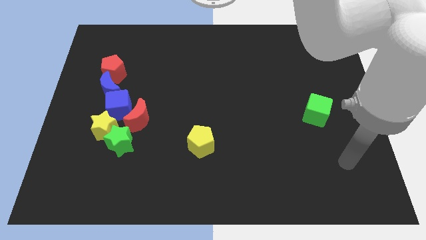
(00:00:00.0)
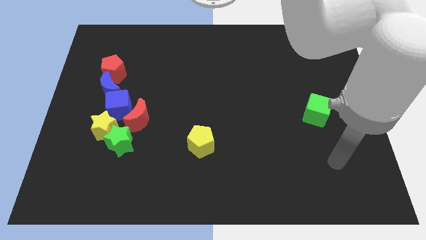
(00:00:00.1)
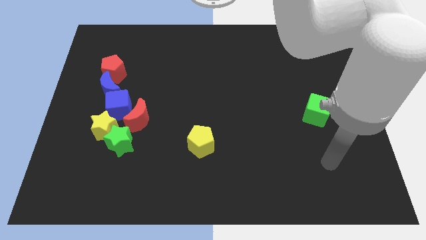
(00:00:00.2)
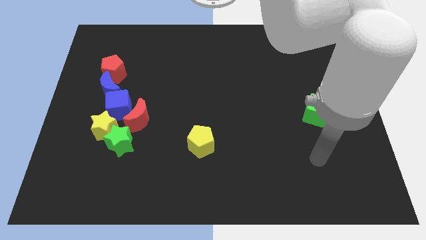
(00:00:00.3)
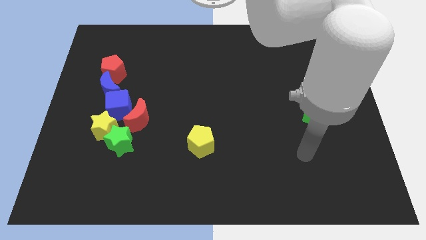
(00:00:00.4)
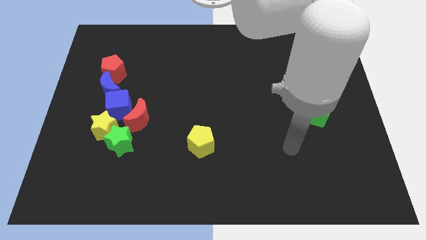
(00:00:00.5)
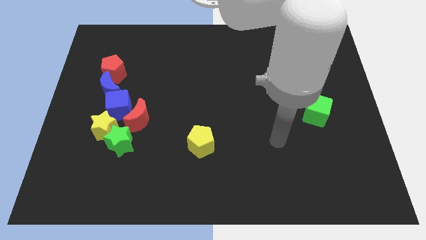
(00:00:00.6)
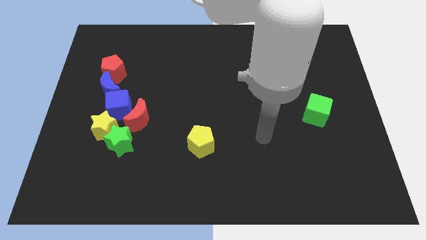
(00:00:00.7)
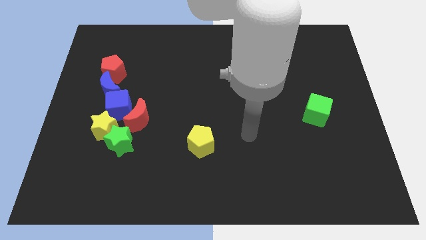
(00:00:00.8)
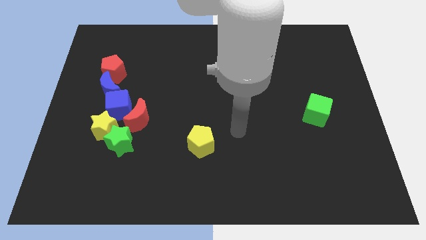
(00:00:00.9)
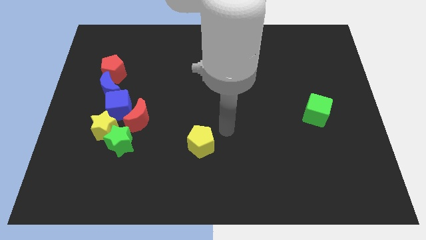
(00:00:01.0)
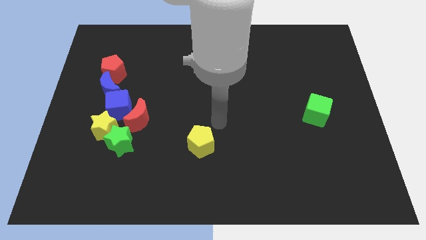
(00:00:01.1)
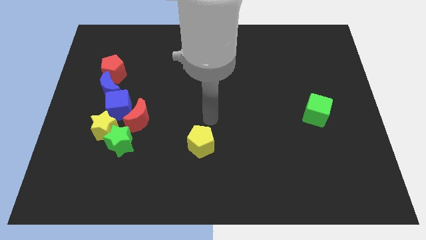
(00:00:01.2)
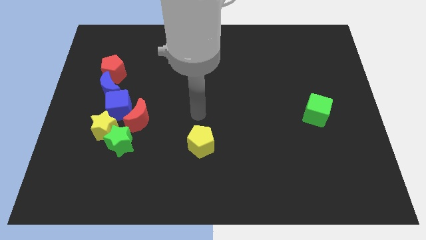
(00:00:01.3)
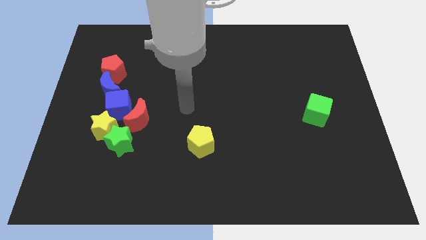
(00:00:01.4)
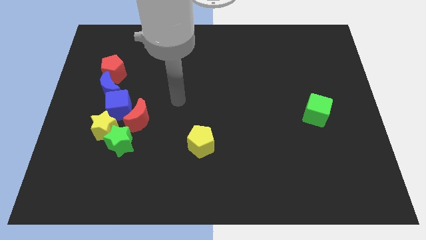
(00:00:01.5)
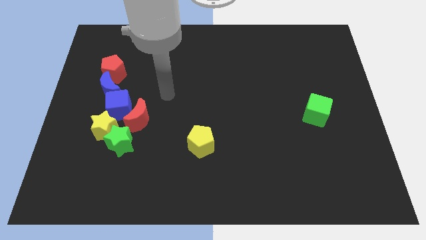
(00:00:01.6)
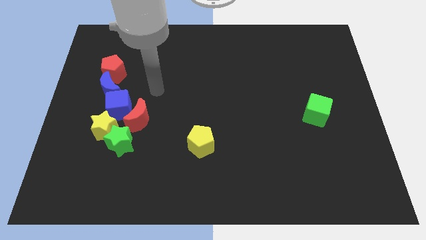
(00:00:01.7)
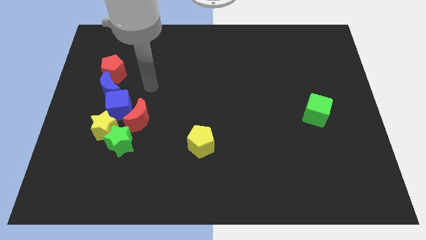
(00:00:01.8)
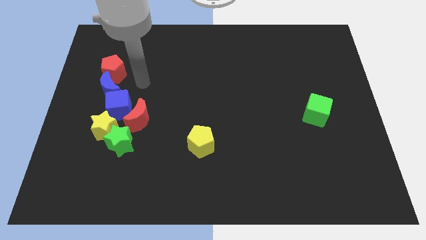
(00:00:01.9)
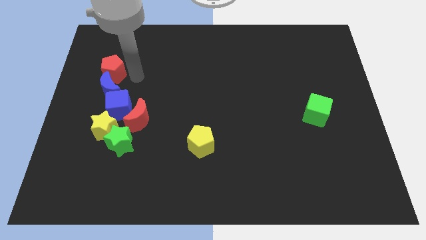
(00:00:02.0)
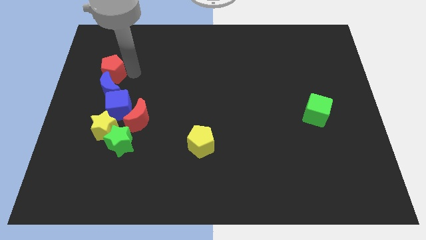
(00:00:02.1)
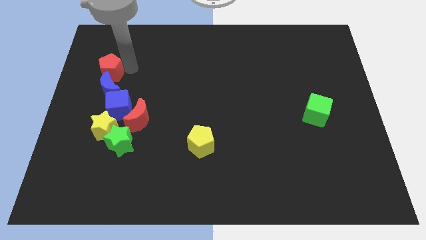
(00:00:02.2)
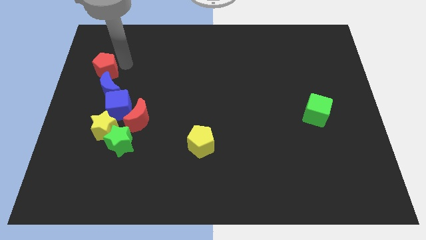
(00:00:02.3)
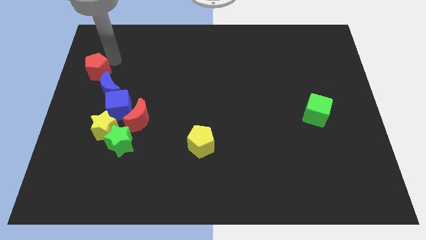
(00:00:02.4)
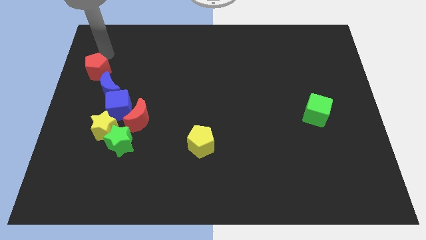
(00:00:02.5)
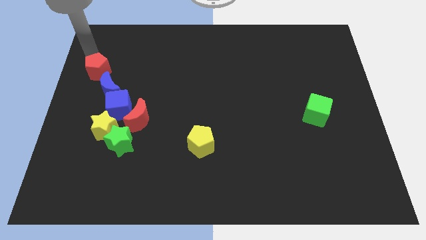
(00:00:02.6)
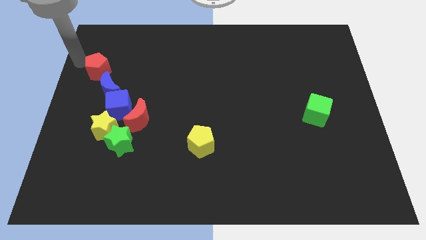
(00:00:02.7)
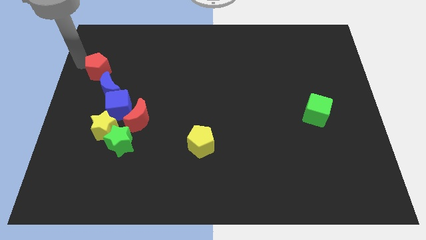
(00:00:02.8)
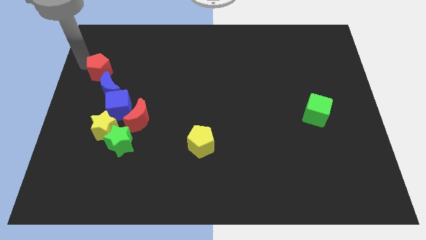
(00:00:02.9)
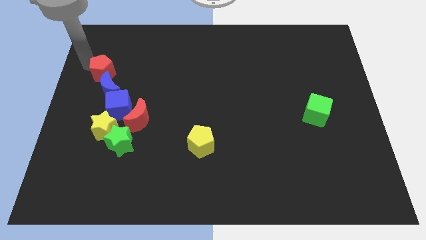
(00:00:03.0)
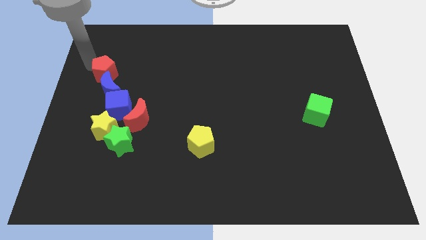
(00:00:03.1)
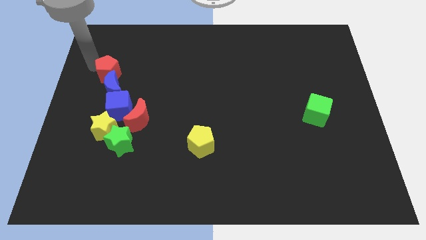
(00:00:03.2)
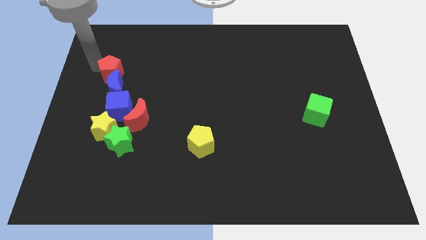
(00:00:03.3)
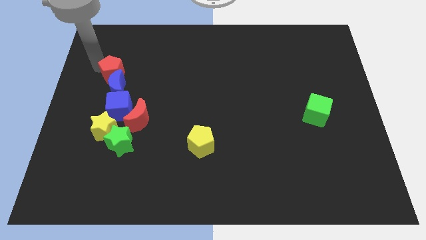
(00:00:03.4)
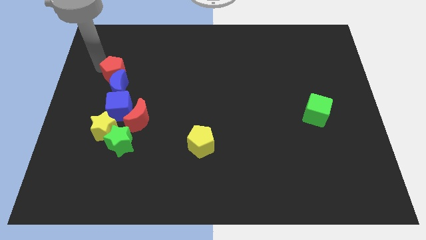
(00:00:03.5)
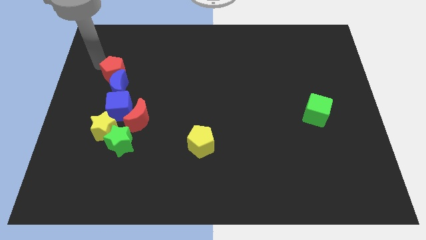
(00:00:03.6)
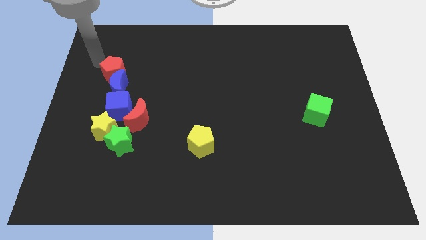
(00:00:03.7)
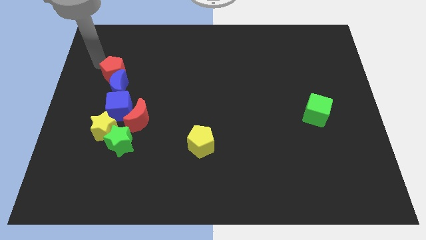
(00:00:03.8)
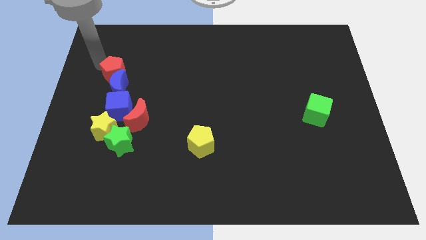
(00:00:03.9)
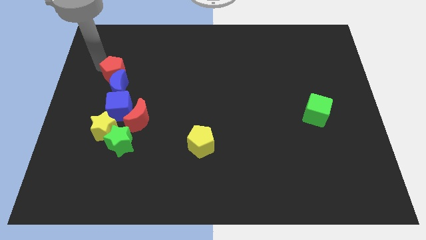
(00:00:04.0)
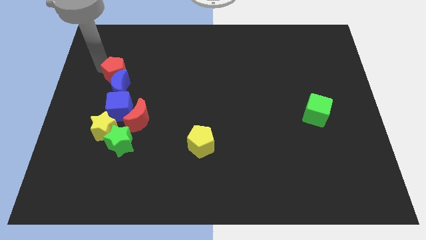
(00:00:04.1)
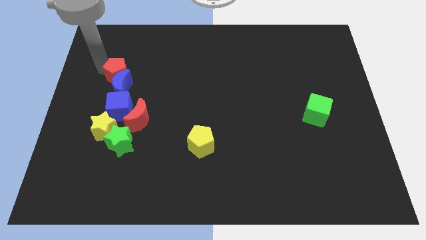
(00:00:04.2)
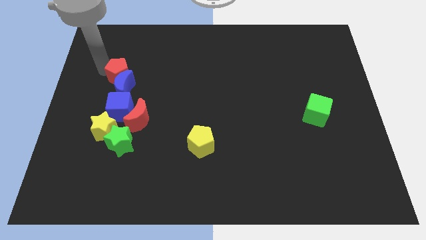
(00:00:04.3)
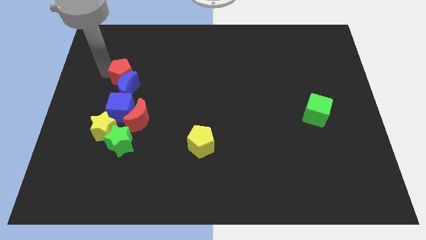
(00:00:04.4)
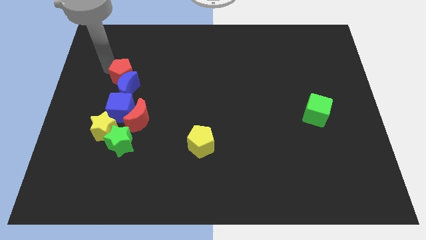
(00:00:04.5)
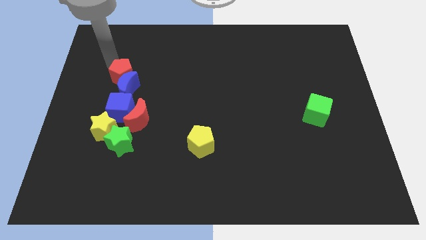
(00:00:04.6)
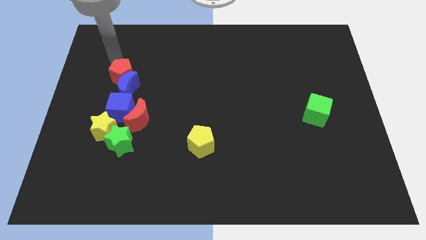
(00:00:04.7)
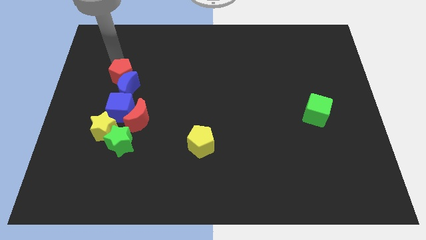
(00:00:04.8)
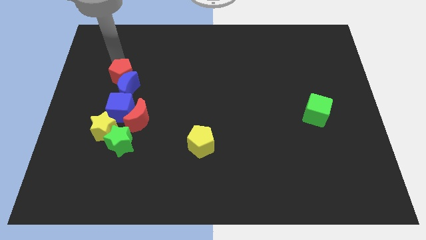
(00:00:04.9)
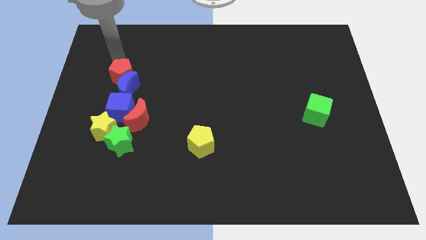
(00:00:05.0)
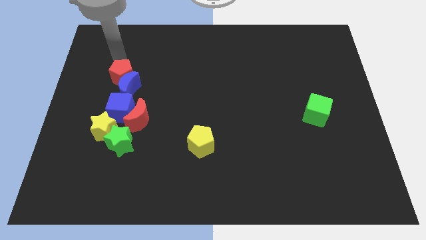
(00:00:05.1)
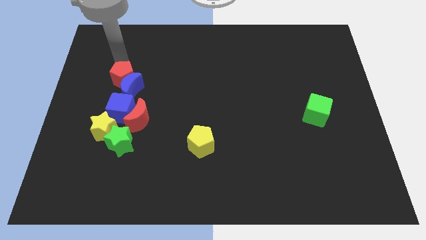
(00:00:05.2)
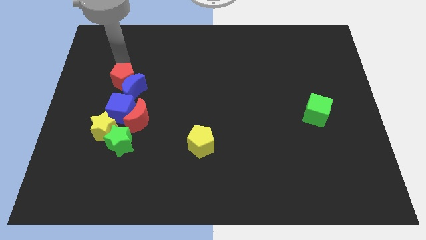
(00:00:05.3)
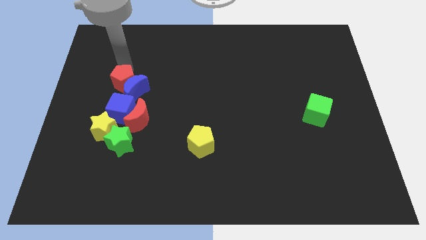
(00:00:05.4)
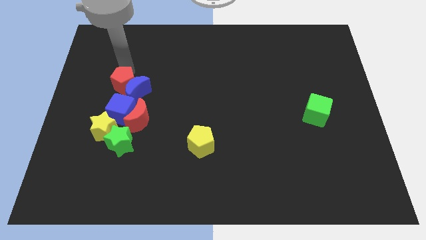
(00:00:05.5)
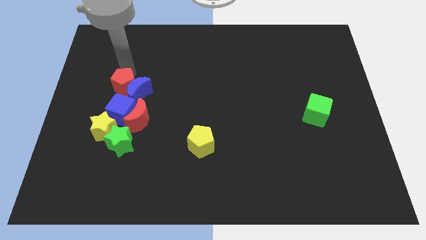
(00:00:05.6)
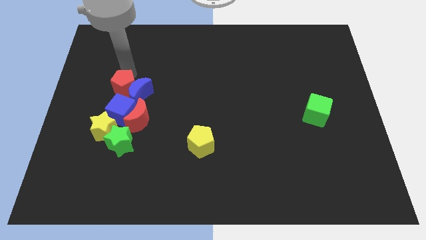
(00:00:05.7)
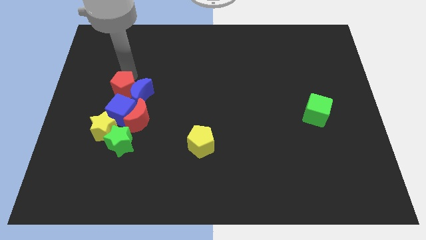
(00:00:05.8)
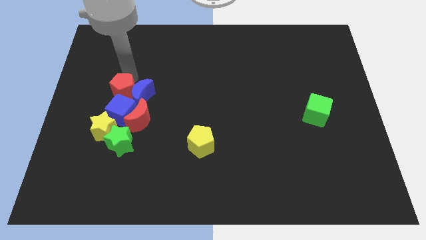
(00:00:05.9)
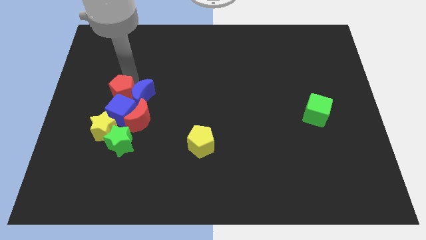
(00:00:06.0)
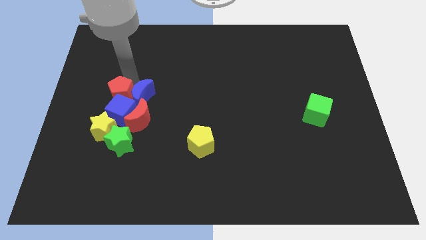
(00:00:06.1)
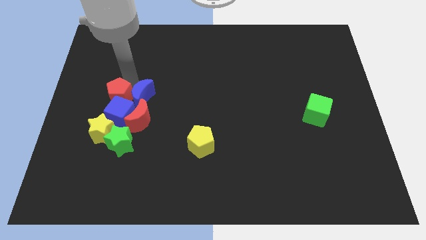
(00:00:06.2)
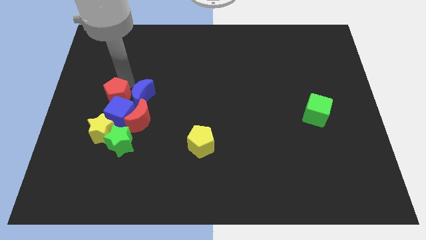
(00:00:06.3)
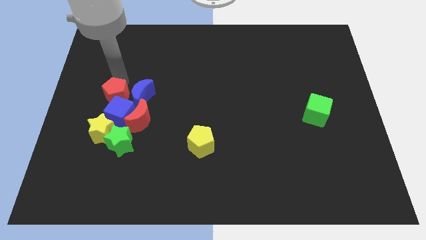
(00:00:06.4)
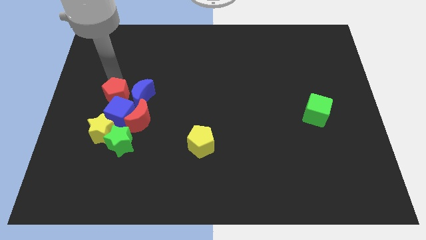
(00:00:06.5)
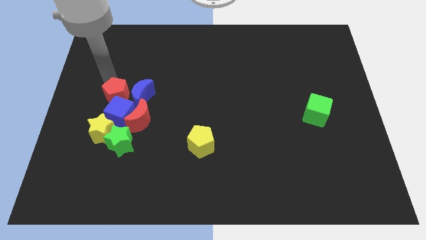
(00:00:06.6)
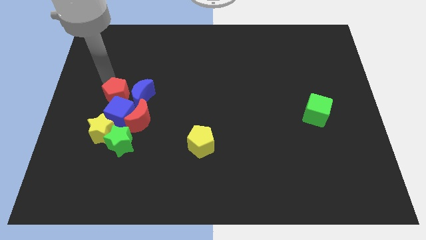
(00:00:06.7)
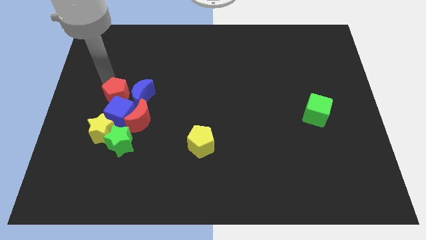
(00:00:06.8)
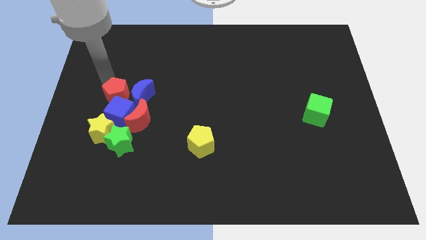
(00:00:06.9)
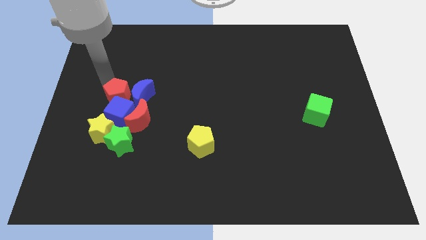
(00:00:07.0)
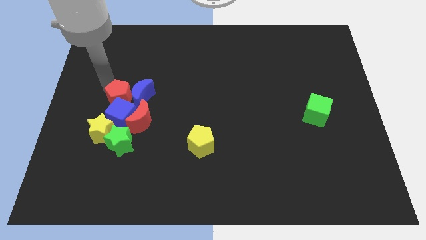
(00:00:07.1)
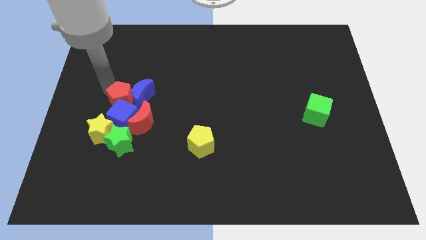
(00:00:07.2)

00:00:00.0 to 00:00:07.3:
slide the red pentagon diagonally up and to the right of the yellow star
